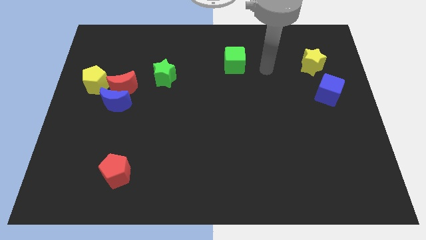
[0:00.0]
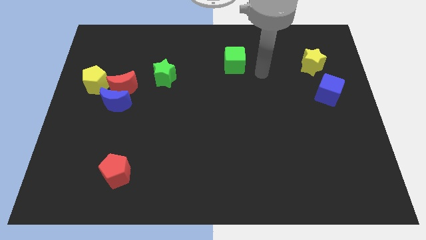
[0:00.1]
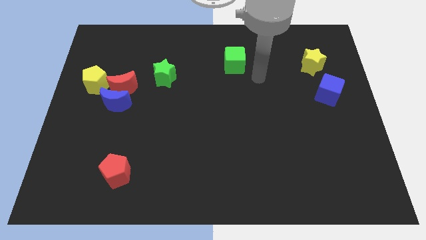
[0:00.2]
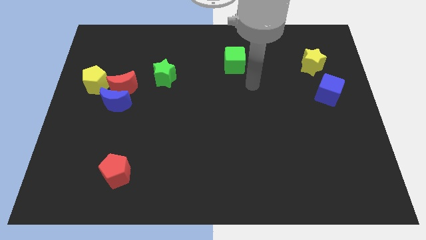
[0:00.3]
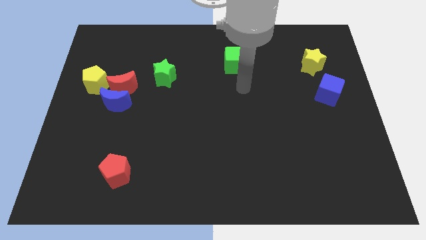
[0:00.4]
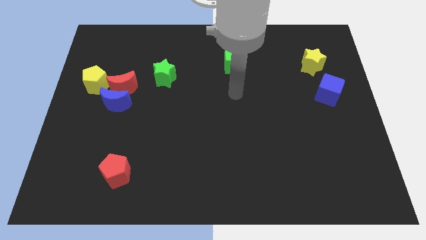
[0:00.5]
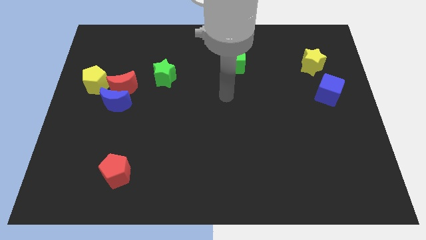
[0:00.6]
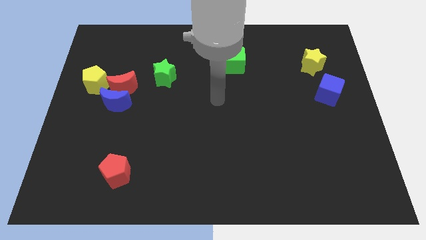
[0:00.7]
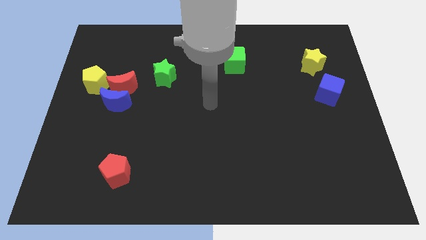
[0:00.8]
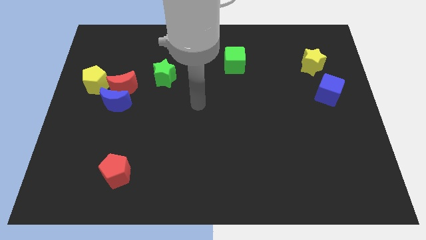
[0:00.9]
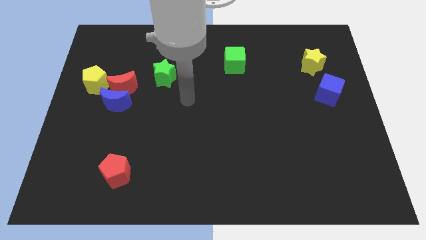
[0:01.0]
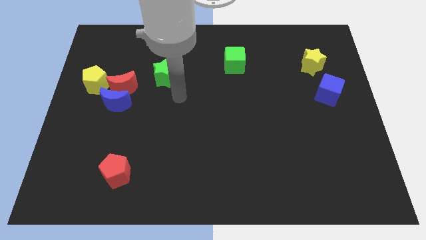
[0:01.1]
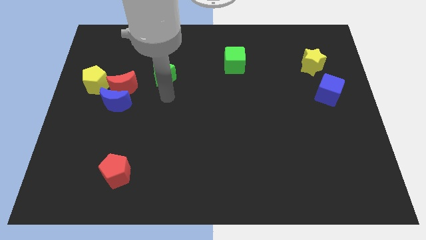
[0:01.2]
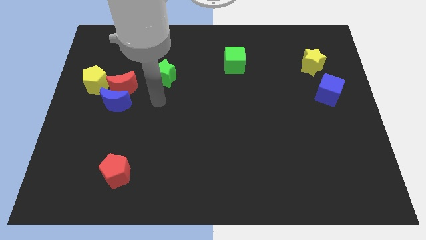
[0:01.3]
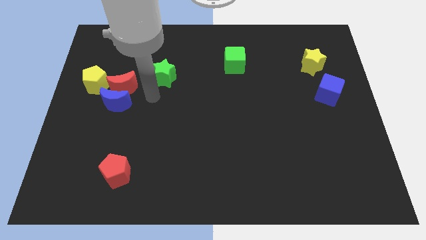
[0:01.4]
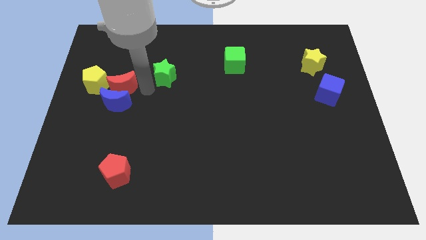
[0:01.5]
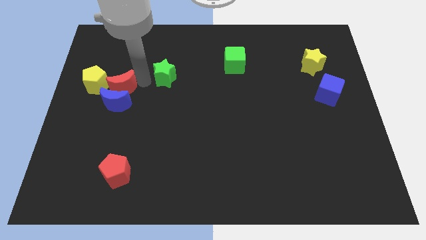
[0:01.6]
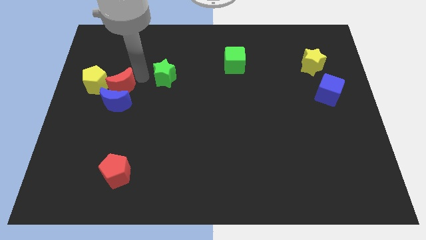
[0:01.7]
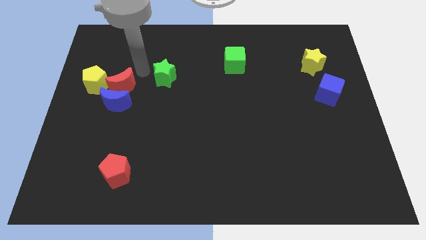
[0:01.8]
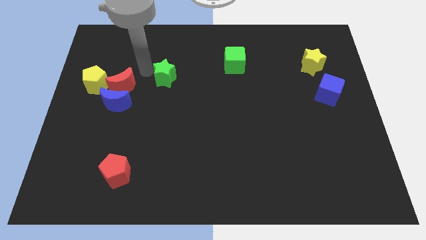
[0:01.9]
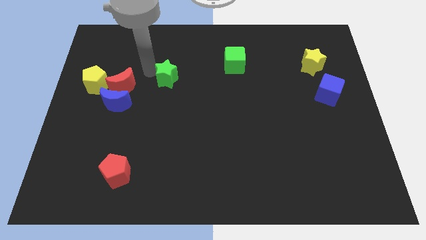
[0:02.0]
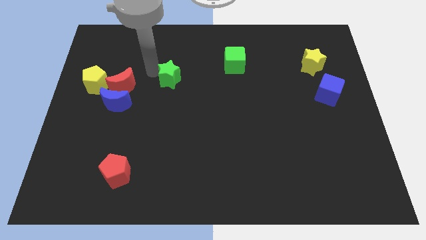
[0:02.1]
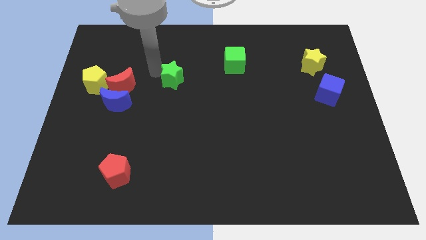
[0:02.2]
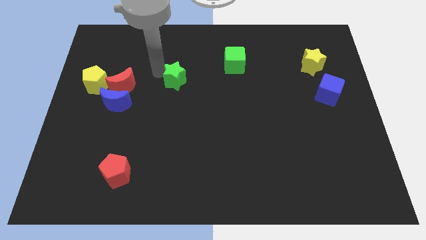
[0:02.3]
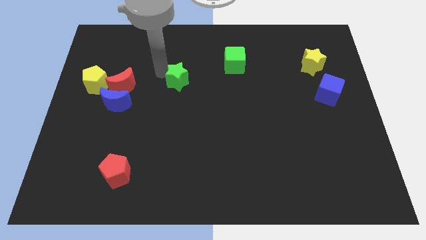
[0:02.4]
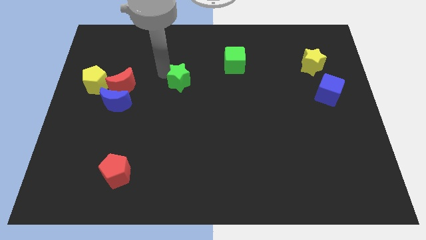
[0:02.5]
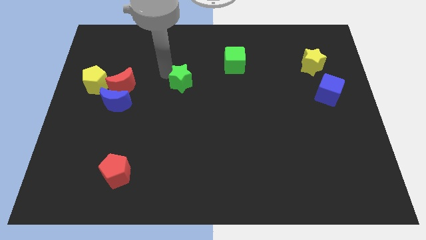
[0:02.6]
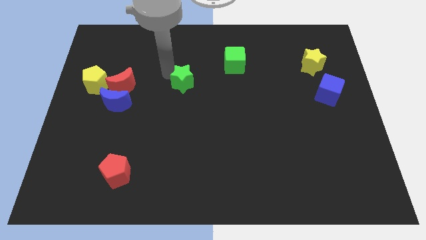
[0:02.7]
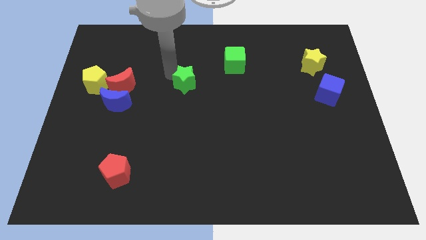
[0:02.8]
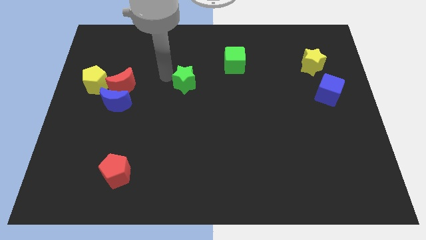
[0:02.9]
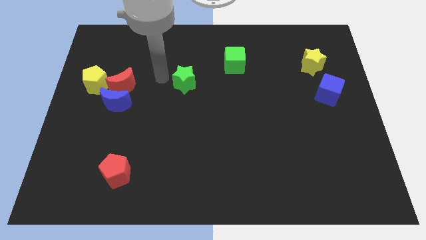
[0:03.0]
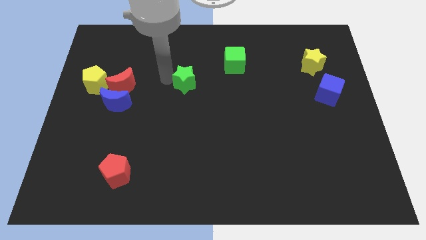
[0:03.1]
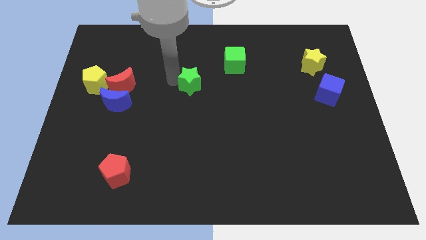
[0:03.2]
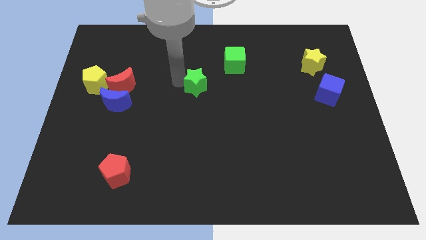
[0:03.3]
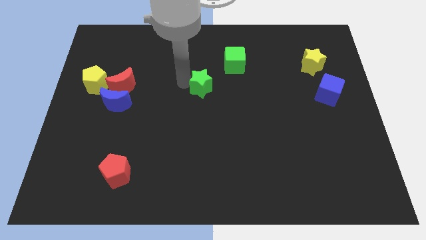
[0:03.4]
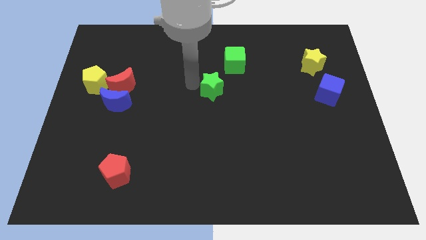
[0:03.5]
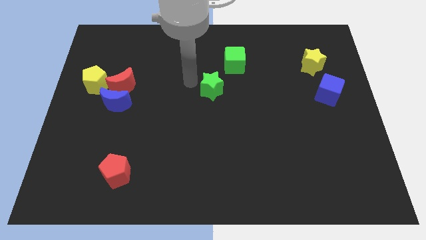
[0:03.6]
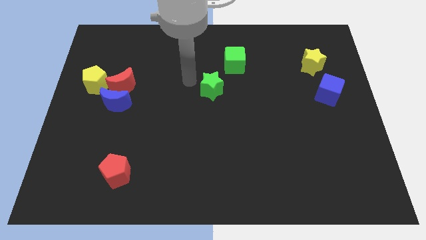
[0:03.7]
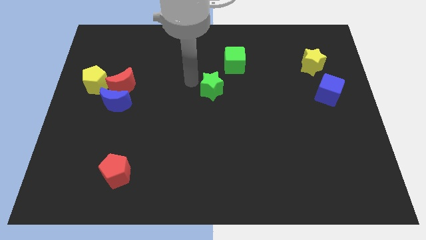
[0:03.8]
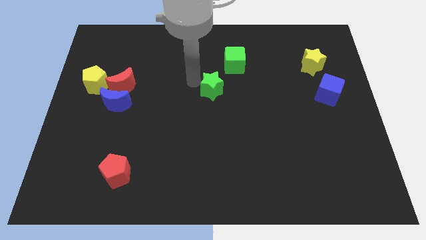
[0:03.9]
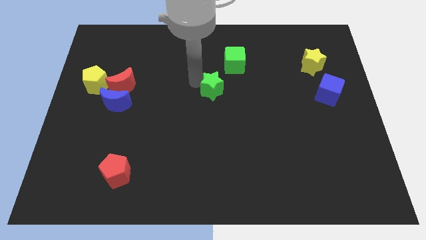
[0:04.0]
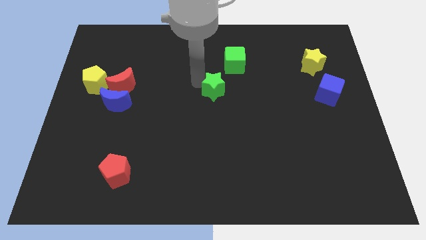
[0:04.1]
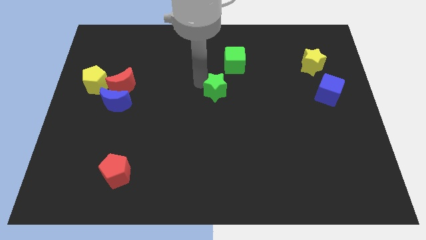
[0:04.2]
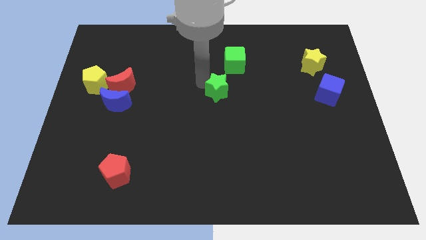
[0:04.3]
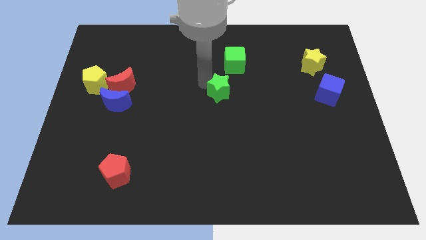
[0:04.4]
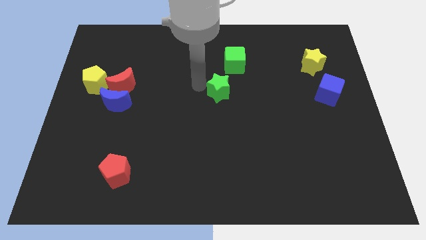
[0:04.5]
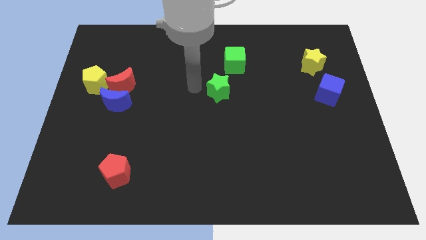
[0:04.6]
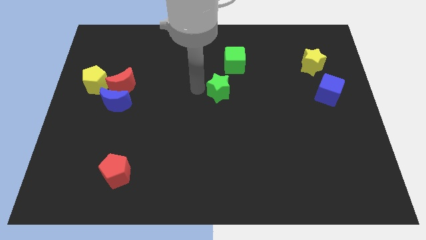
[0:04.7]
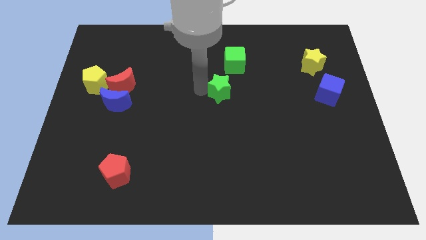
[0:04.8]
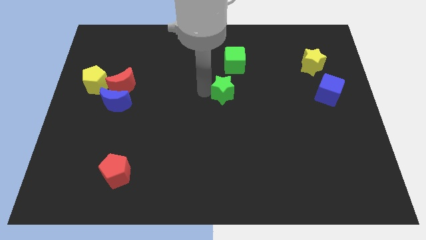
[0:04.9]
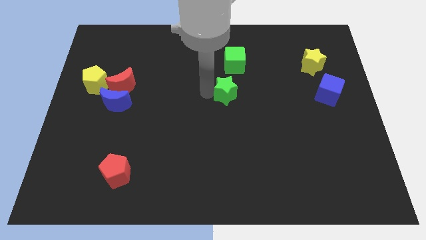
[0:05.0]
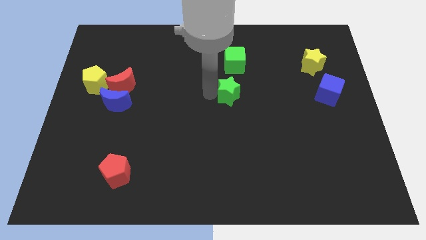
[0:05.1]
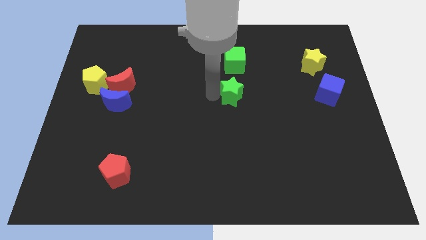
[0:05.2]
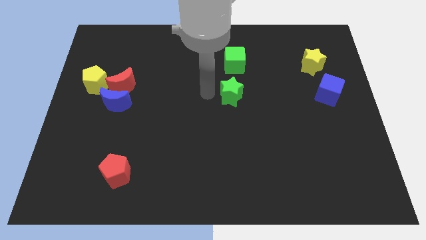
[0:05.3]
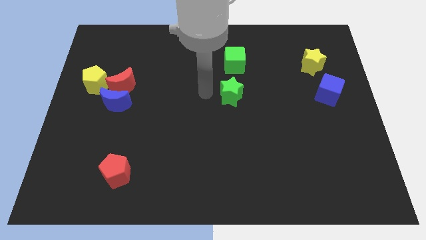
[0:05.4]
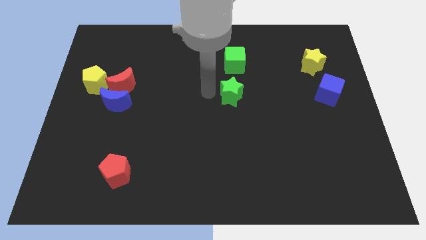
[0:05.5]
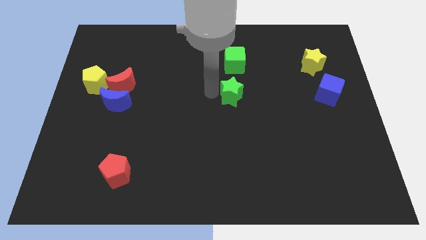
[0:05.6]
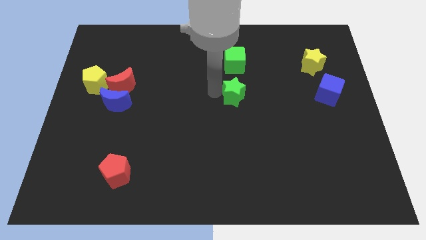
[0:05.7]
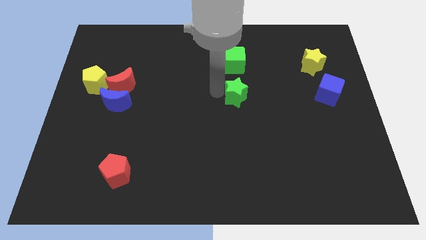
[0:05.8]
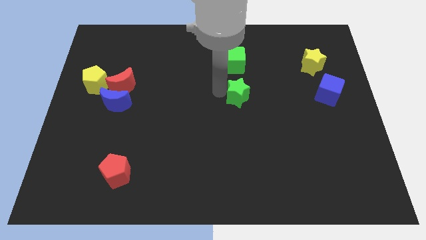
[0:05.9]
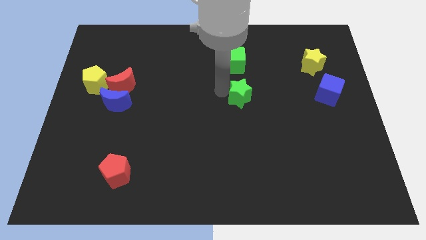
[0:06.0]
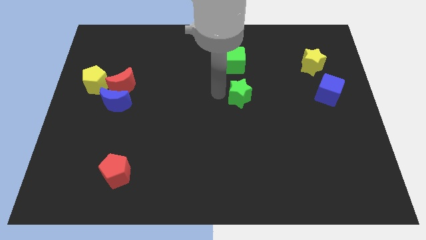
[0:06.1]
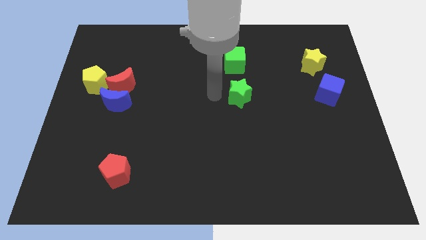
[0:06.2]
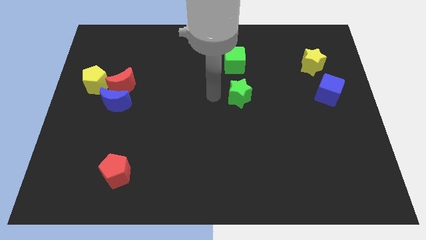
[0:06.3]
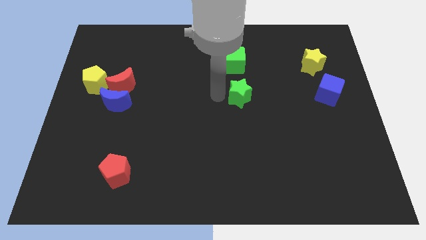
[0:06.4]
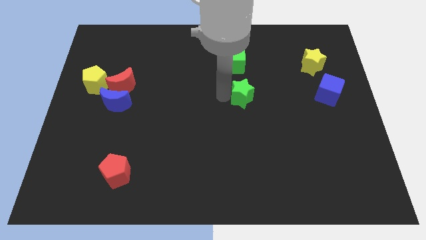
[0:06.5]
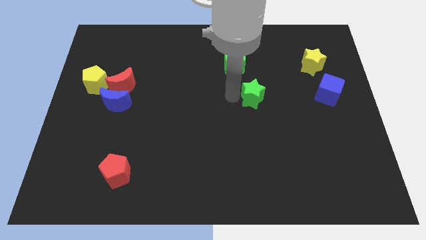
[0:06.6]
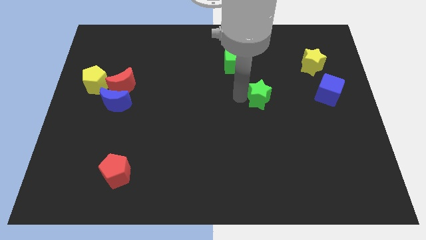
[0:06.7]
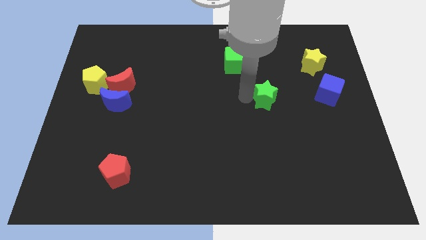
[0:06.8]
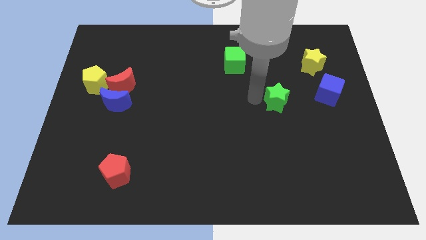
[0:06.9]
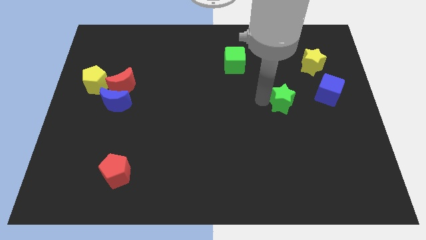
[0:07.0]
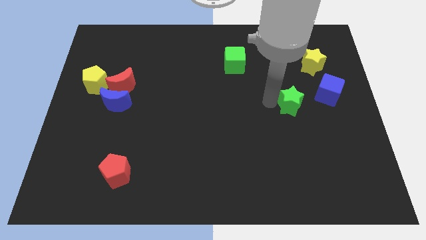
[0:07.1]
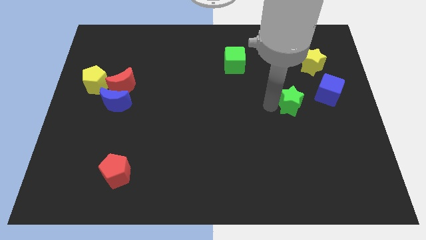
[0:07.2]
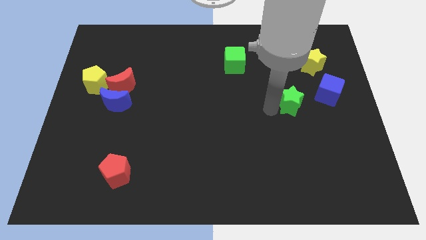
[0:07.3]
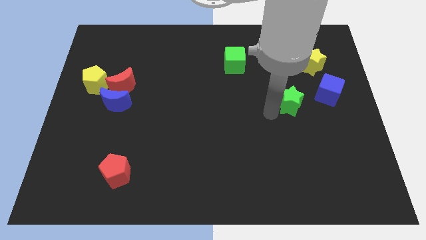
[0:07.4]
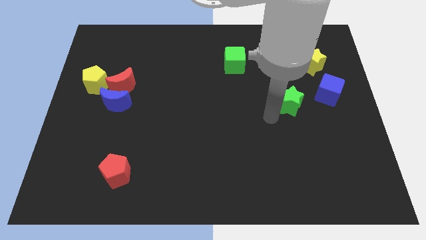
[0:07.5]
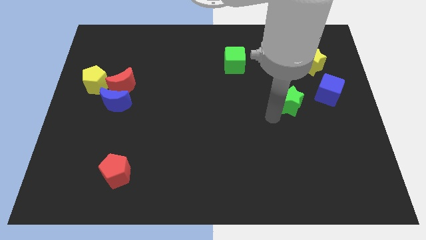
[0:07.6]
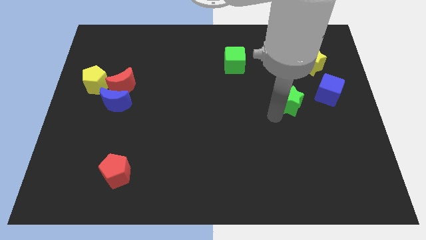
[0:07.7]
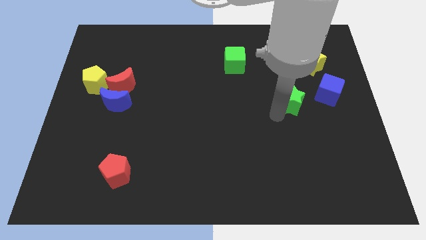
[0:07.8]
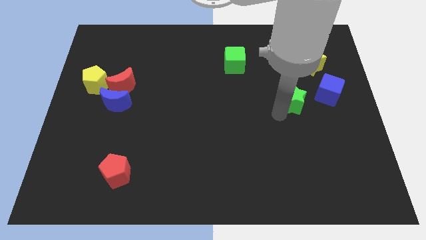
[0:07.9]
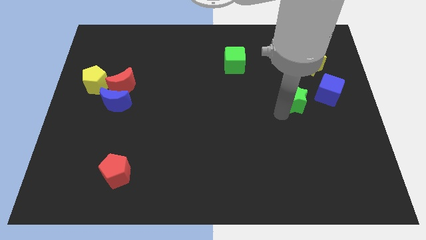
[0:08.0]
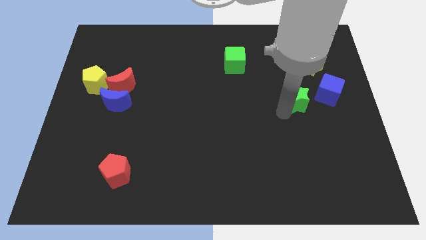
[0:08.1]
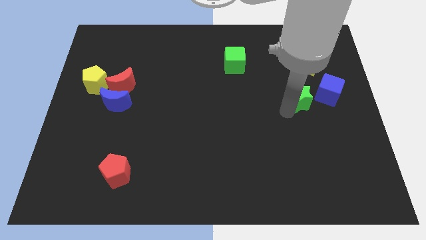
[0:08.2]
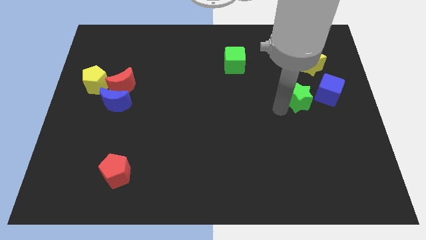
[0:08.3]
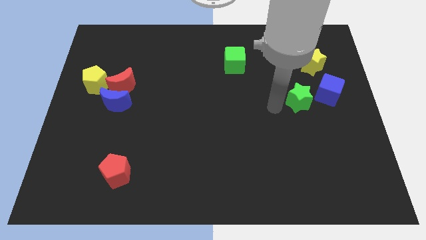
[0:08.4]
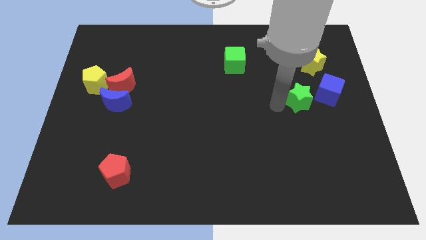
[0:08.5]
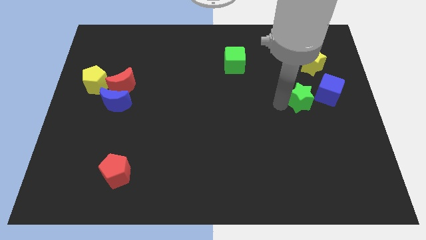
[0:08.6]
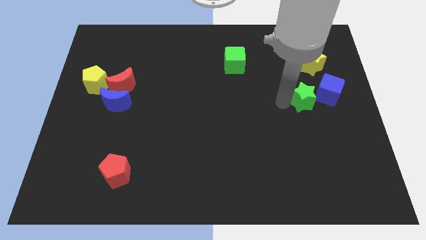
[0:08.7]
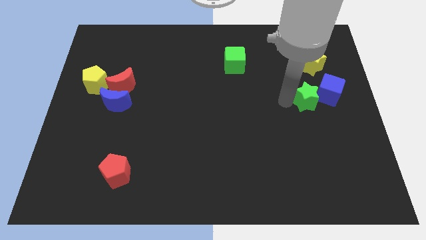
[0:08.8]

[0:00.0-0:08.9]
slide the green star to the blue cube
